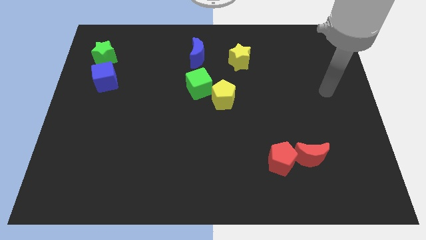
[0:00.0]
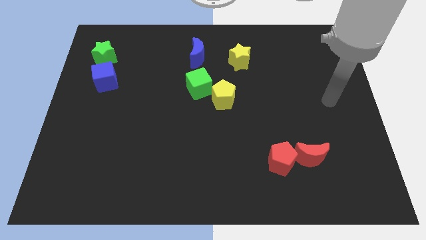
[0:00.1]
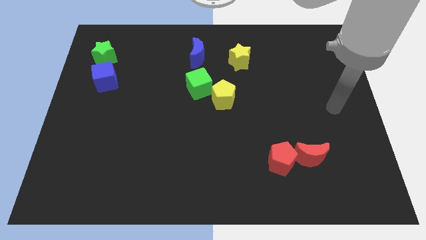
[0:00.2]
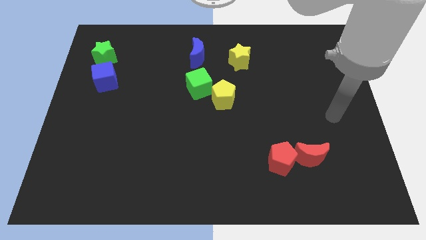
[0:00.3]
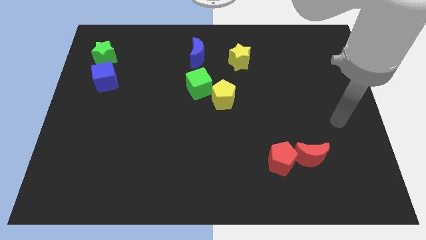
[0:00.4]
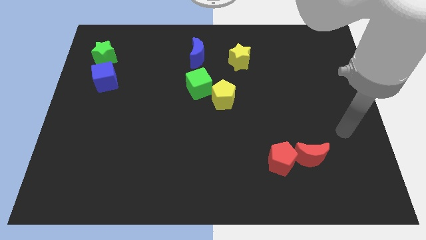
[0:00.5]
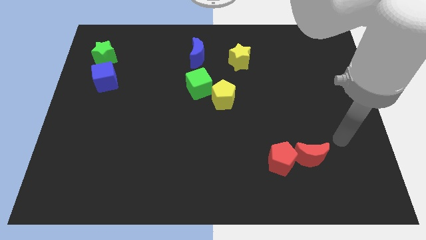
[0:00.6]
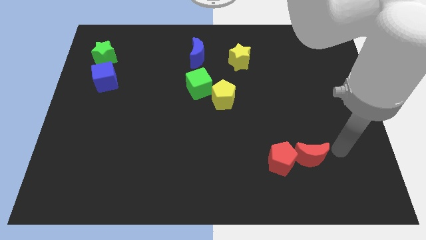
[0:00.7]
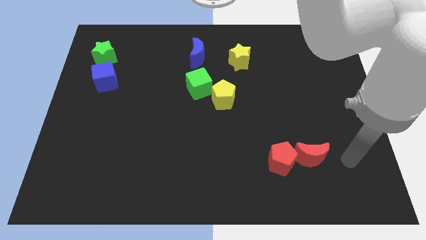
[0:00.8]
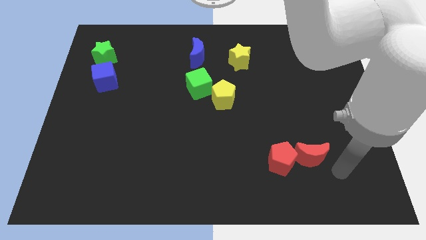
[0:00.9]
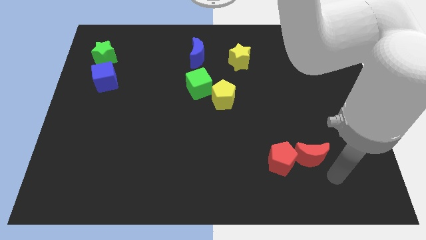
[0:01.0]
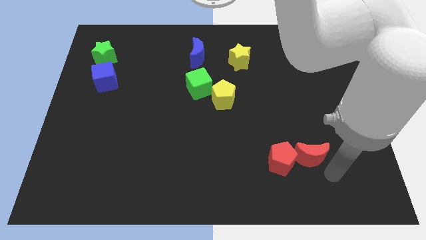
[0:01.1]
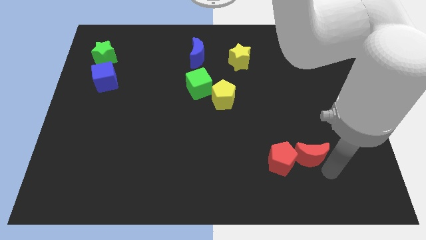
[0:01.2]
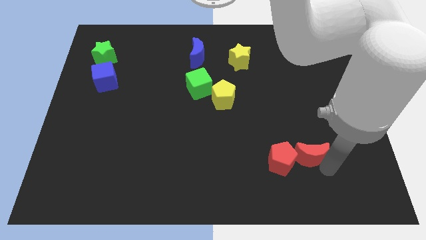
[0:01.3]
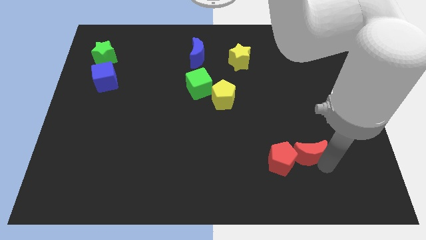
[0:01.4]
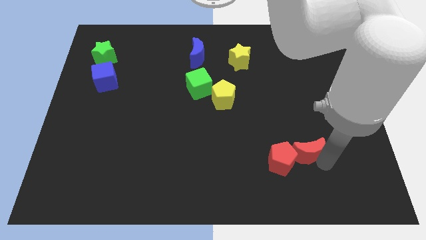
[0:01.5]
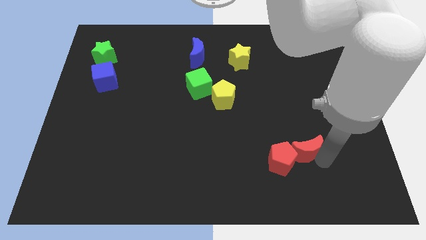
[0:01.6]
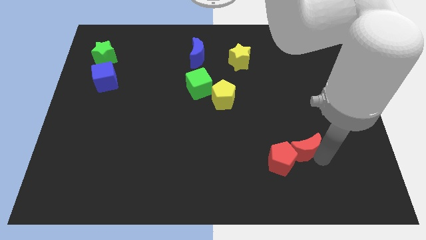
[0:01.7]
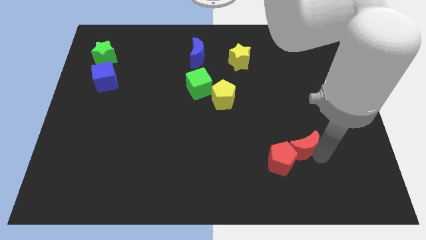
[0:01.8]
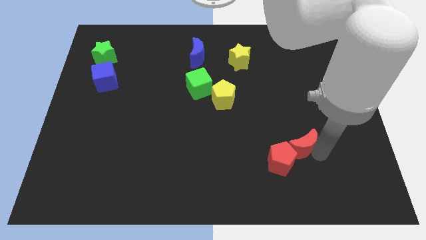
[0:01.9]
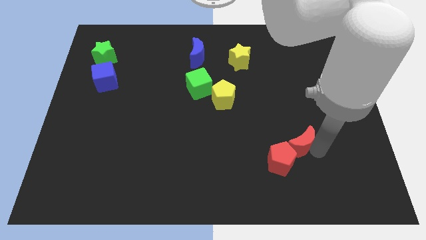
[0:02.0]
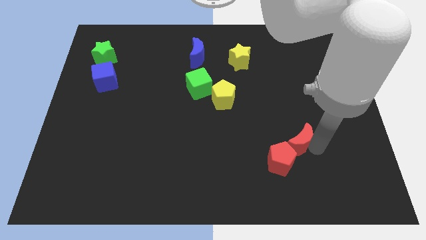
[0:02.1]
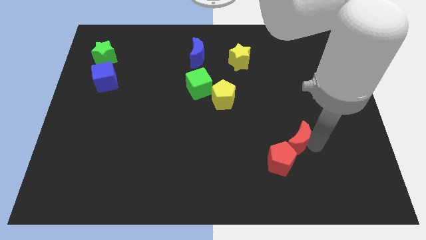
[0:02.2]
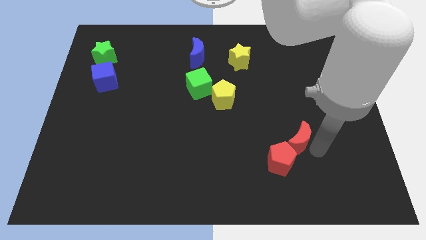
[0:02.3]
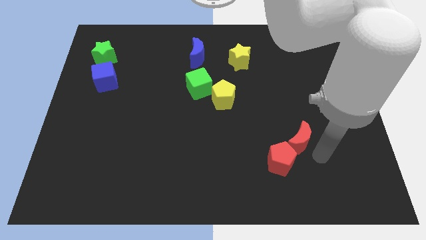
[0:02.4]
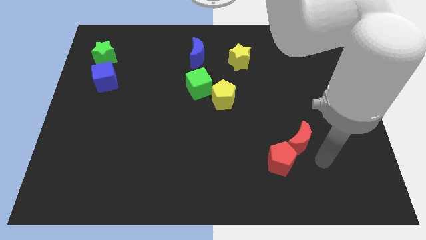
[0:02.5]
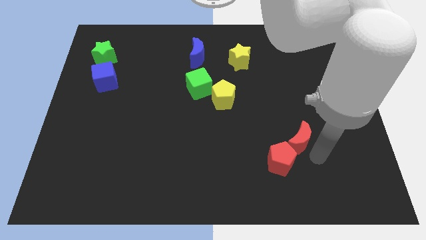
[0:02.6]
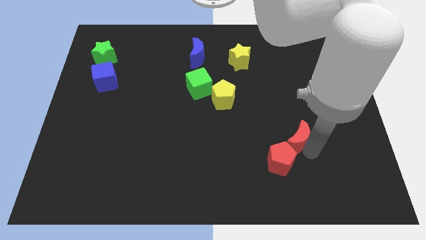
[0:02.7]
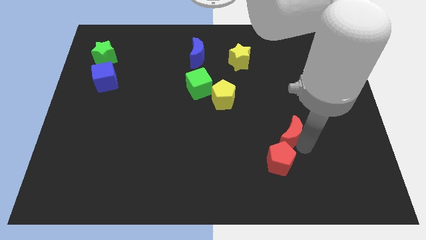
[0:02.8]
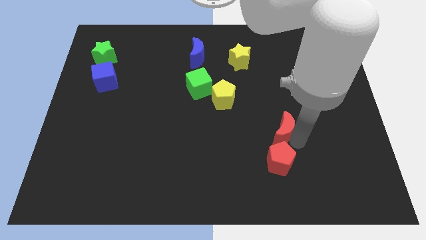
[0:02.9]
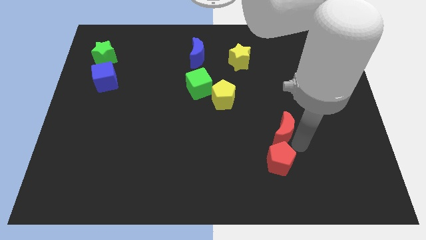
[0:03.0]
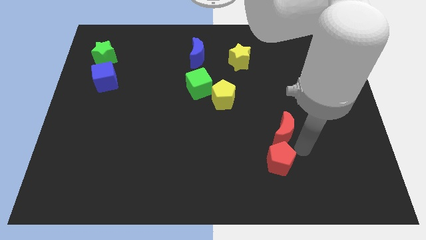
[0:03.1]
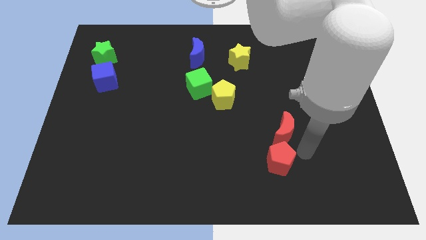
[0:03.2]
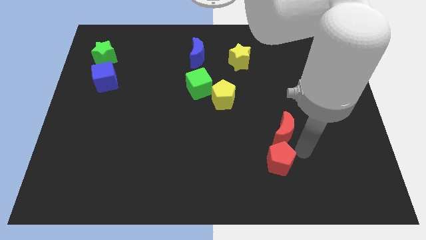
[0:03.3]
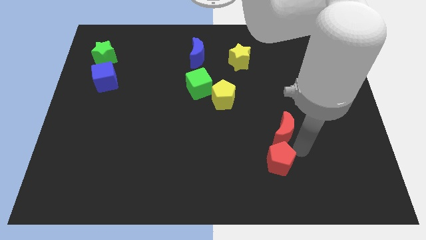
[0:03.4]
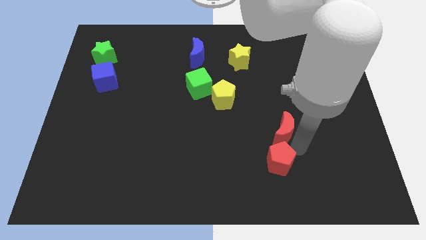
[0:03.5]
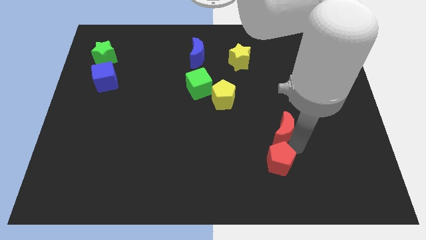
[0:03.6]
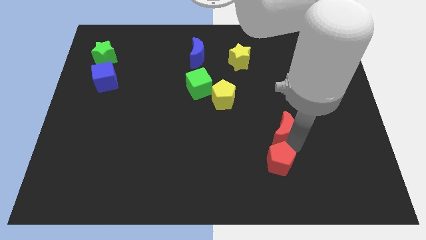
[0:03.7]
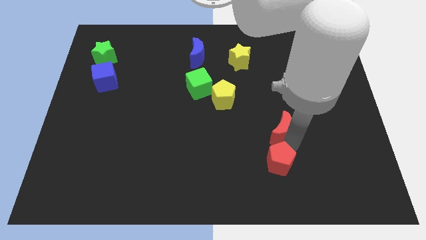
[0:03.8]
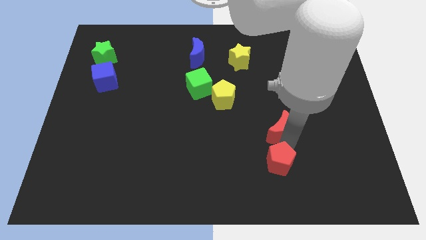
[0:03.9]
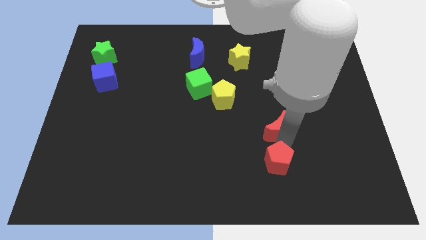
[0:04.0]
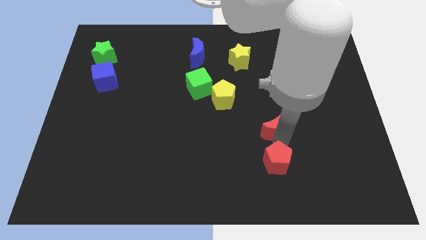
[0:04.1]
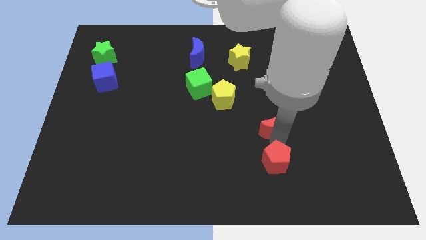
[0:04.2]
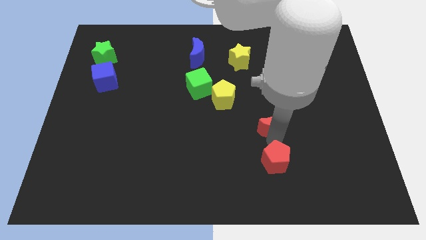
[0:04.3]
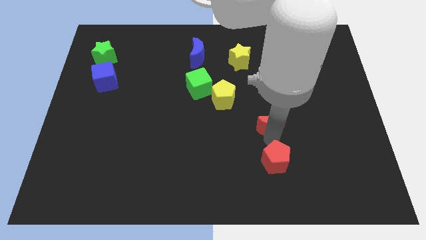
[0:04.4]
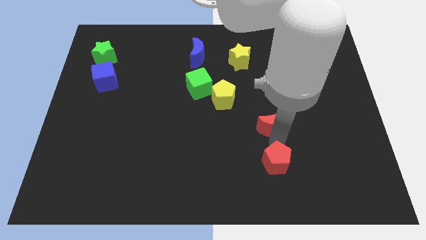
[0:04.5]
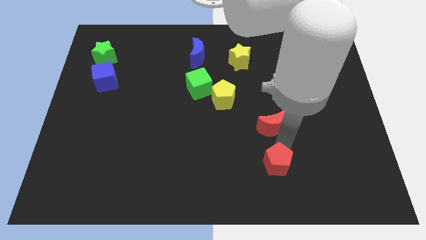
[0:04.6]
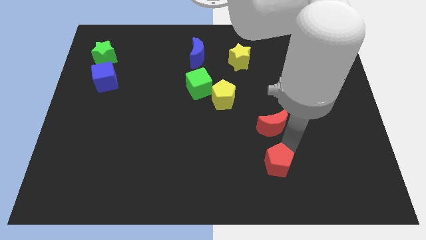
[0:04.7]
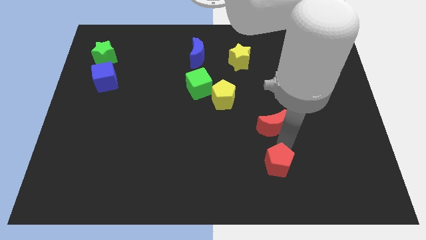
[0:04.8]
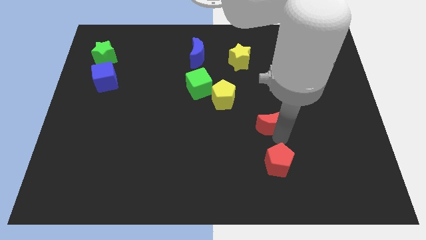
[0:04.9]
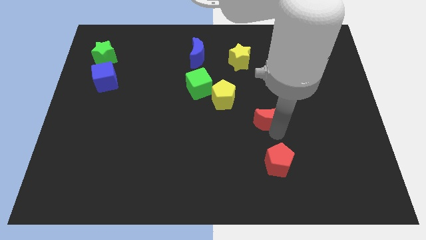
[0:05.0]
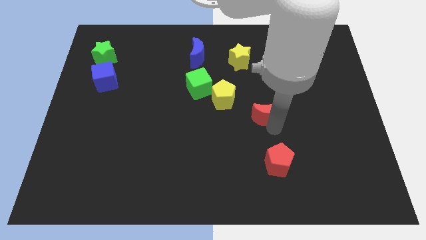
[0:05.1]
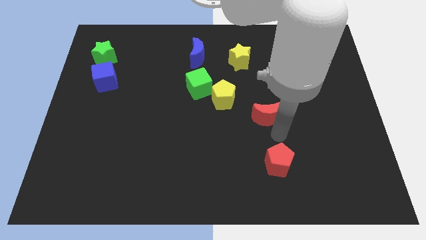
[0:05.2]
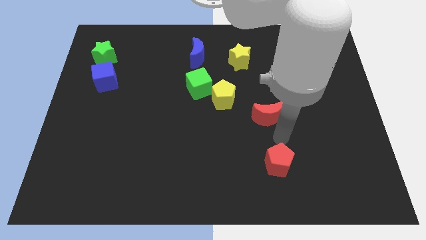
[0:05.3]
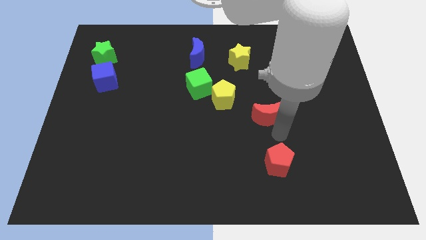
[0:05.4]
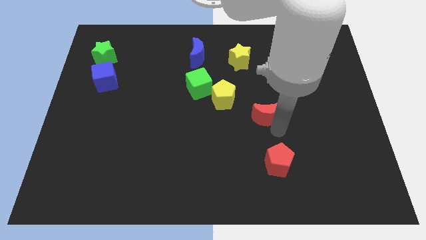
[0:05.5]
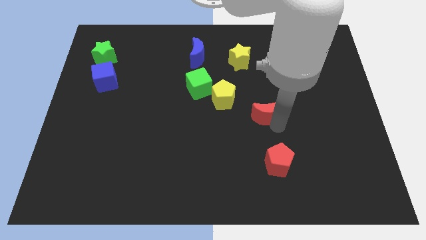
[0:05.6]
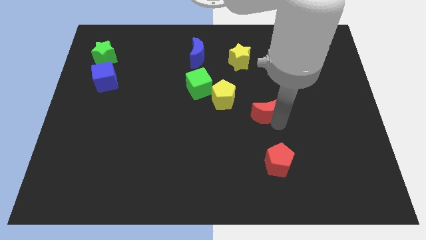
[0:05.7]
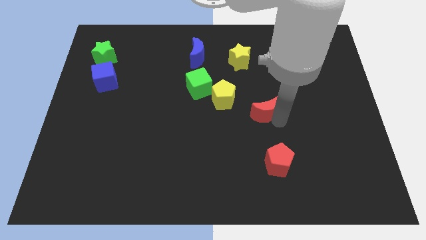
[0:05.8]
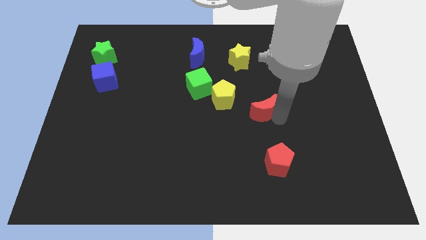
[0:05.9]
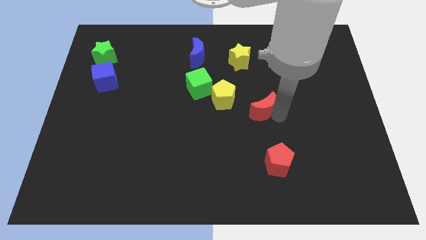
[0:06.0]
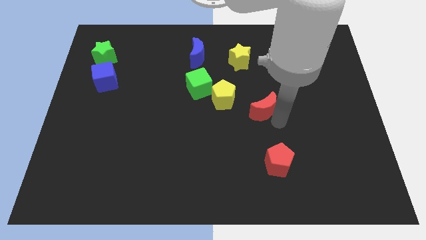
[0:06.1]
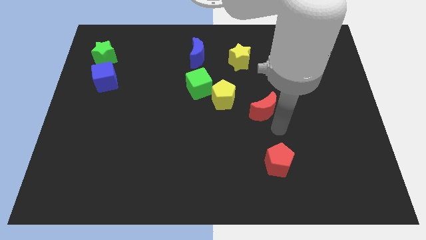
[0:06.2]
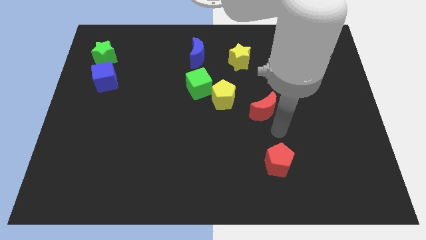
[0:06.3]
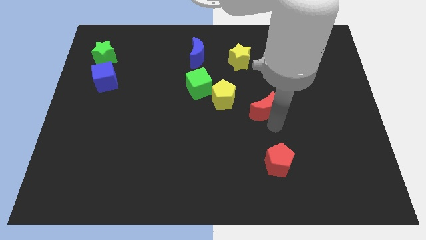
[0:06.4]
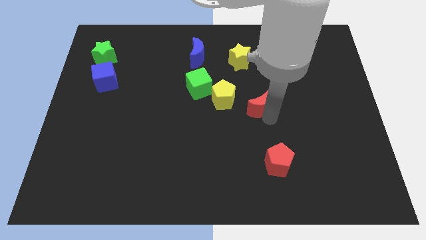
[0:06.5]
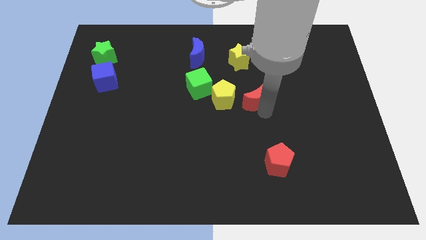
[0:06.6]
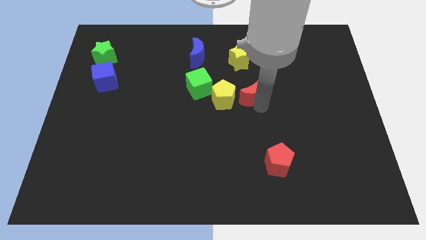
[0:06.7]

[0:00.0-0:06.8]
slide the red moon to the top right side of the yellow pentagon
